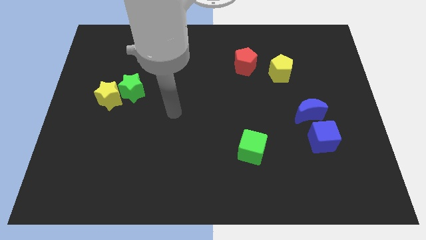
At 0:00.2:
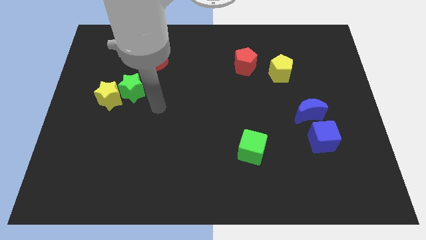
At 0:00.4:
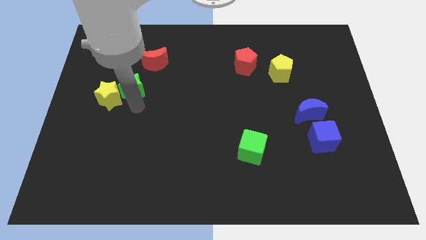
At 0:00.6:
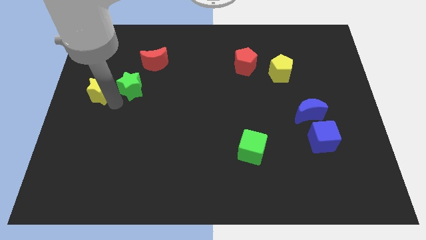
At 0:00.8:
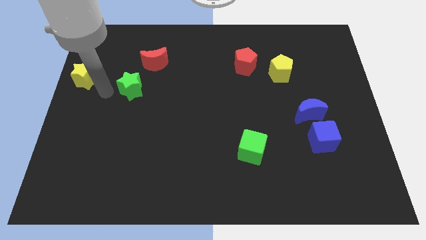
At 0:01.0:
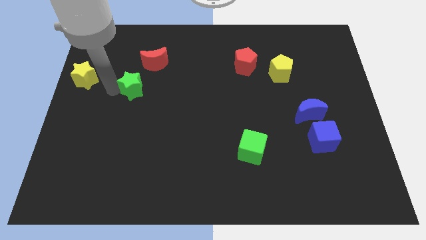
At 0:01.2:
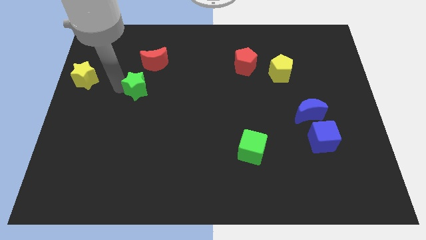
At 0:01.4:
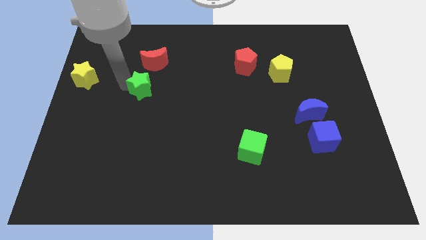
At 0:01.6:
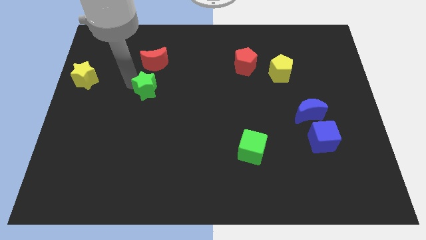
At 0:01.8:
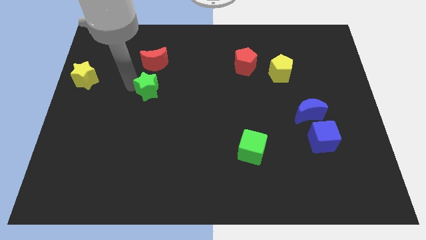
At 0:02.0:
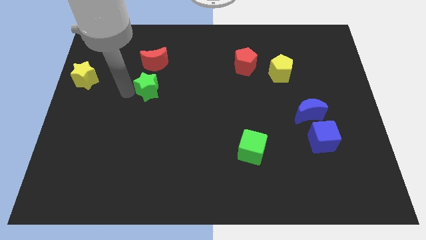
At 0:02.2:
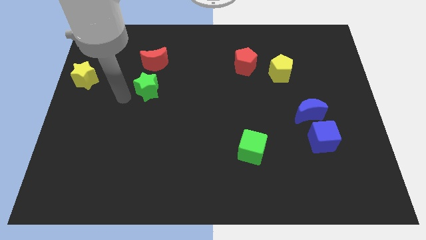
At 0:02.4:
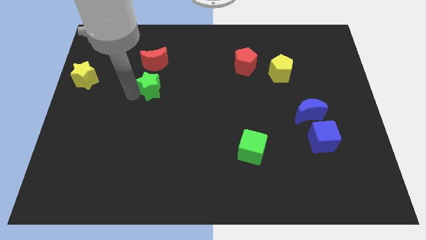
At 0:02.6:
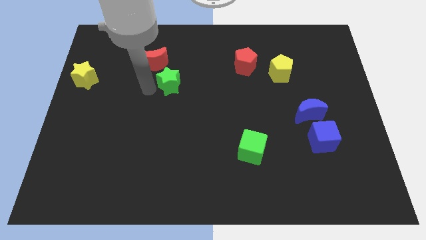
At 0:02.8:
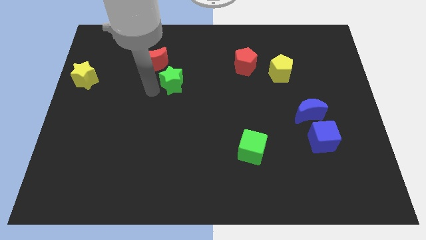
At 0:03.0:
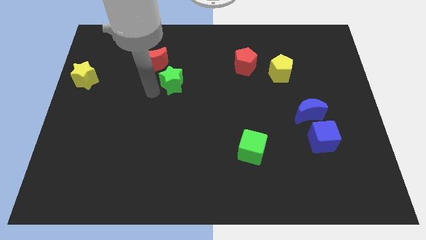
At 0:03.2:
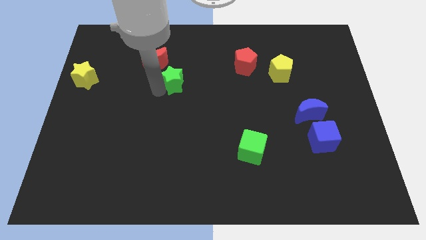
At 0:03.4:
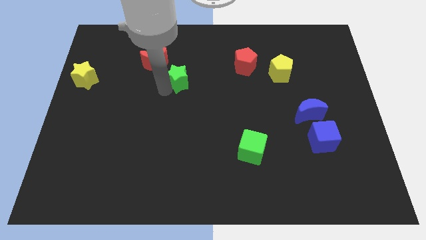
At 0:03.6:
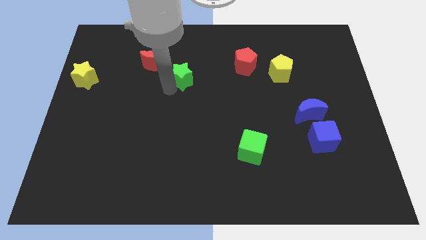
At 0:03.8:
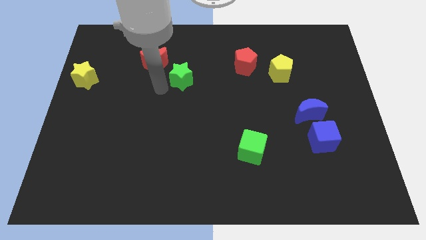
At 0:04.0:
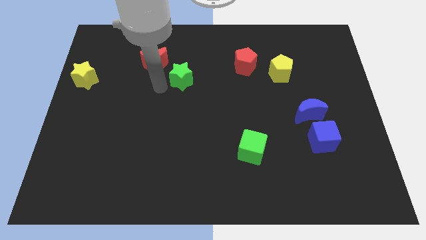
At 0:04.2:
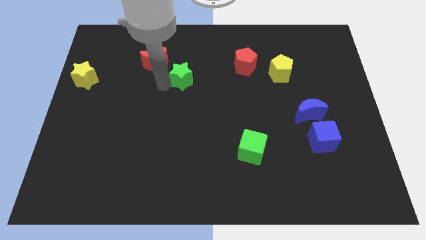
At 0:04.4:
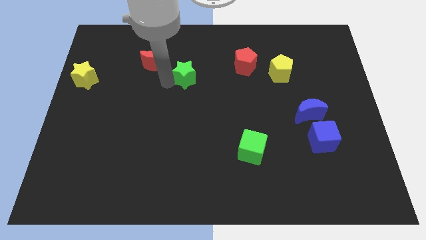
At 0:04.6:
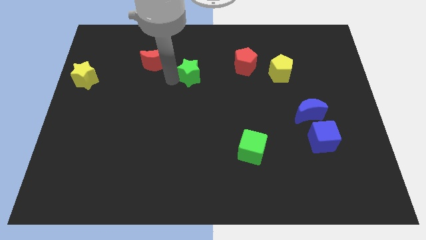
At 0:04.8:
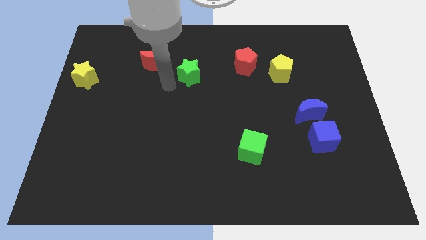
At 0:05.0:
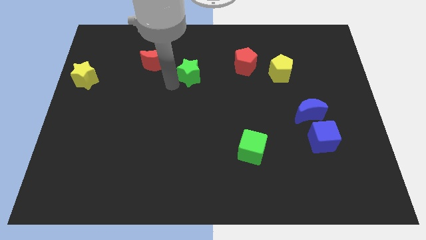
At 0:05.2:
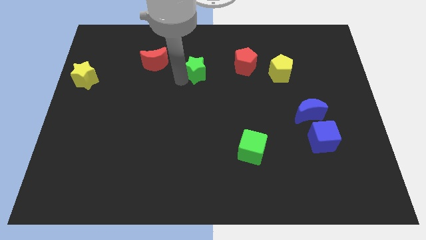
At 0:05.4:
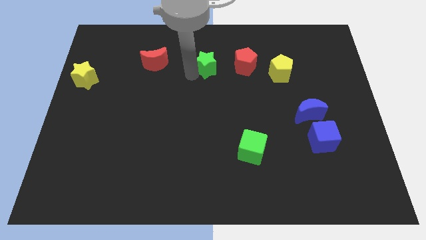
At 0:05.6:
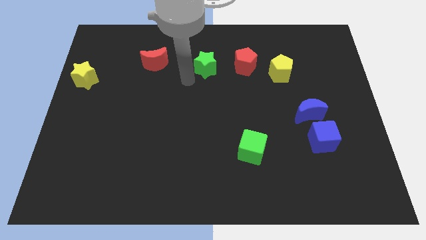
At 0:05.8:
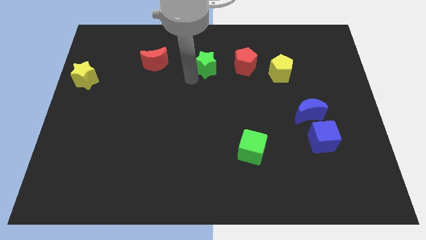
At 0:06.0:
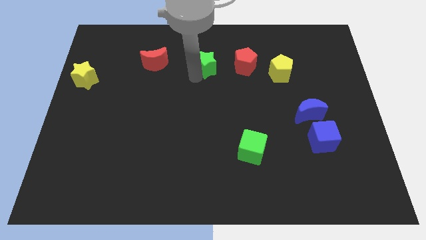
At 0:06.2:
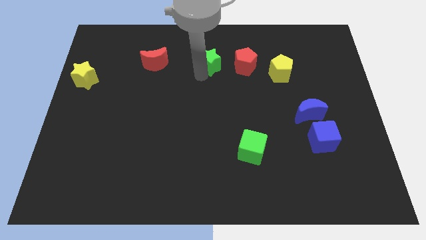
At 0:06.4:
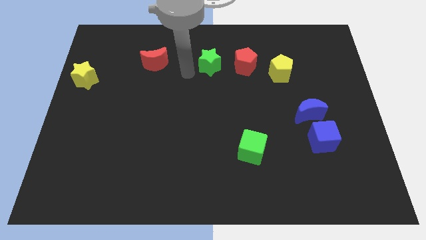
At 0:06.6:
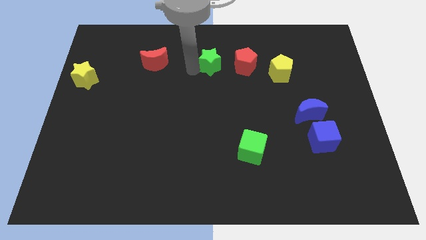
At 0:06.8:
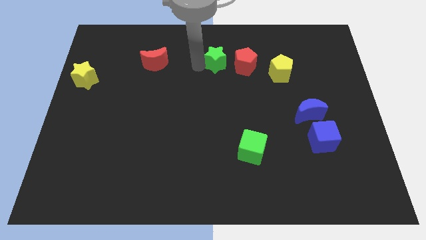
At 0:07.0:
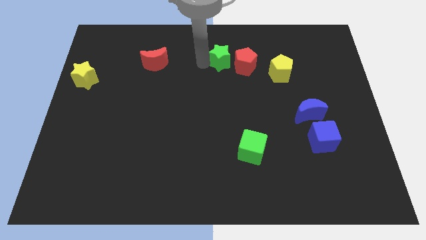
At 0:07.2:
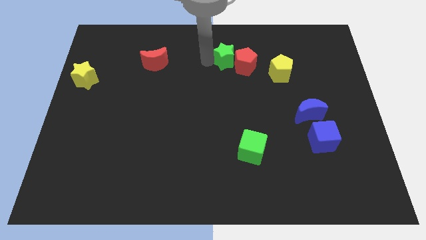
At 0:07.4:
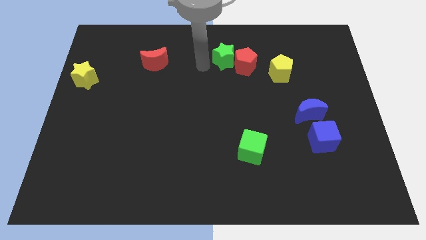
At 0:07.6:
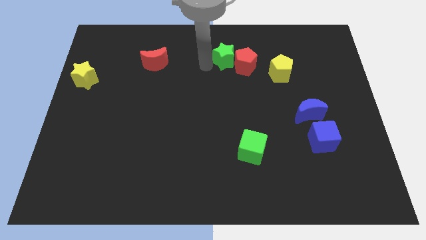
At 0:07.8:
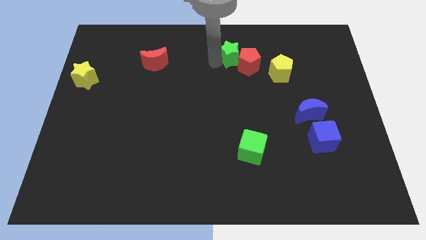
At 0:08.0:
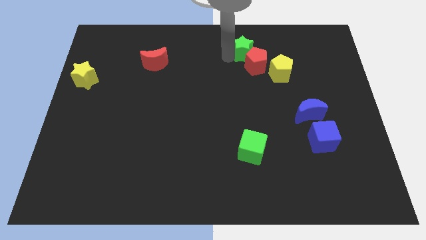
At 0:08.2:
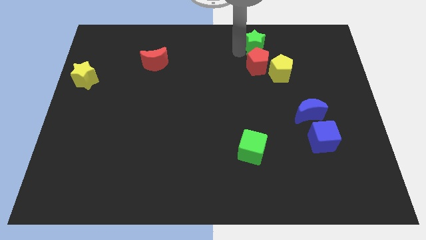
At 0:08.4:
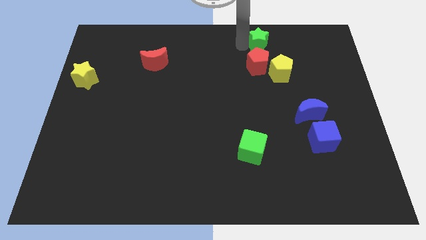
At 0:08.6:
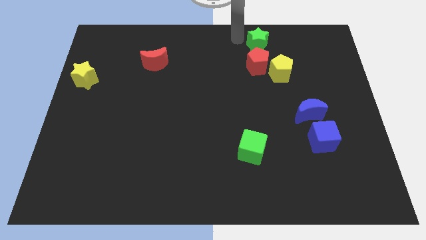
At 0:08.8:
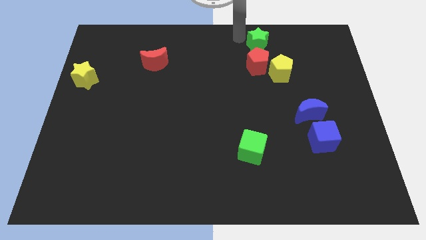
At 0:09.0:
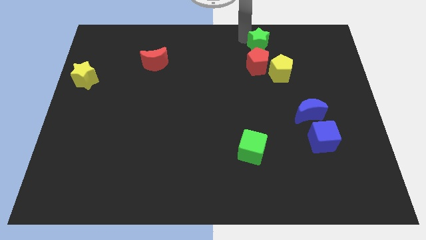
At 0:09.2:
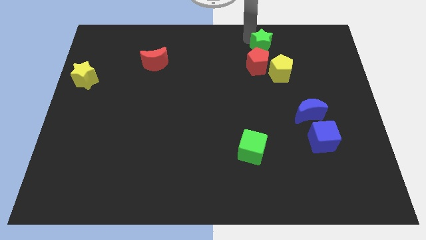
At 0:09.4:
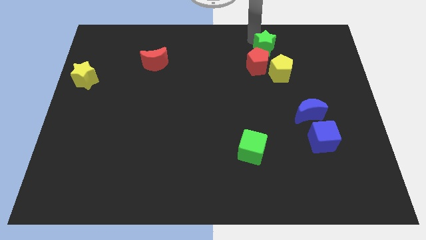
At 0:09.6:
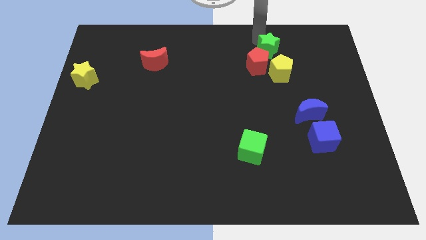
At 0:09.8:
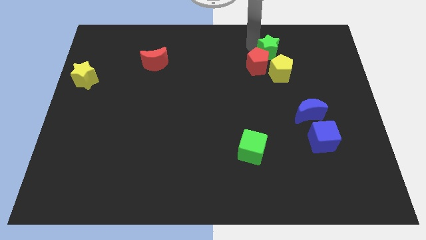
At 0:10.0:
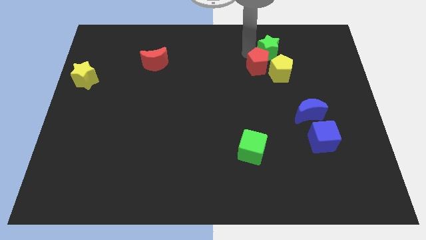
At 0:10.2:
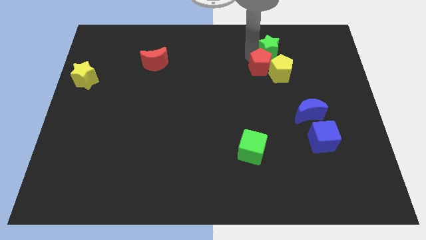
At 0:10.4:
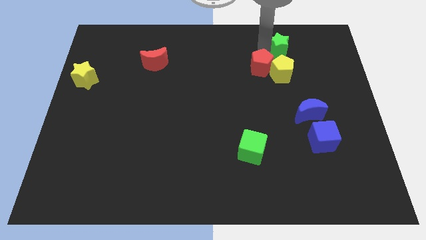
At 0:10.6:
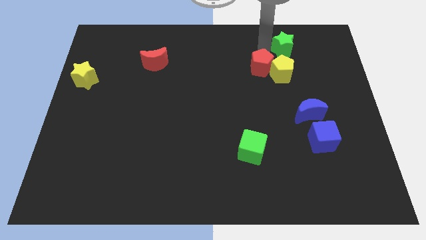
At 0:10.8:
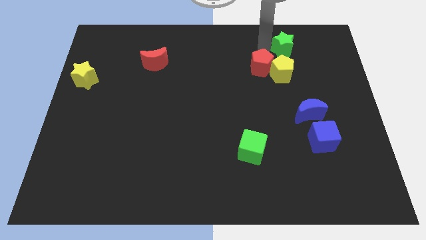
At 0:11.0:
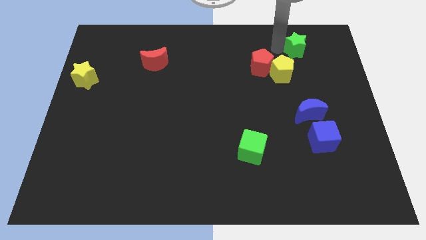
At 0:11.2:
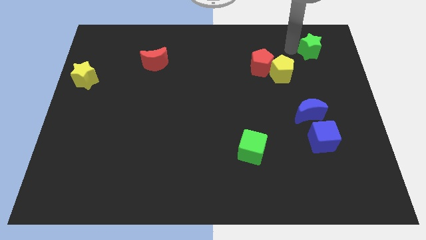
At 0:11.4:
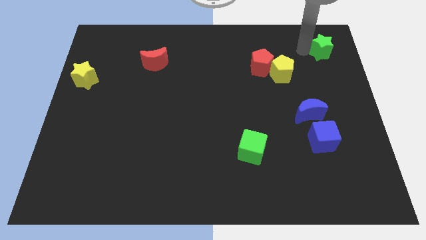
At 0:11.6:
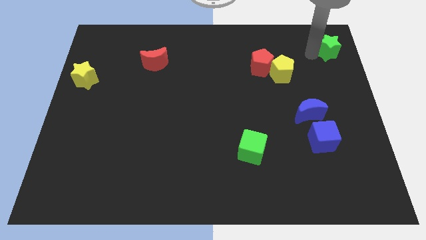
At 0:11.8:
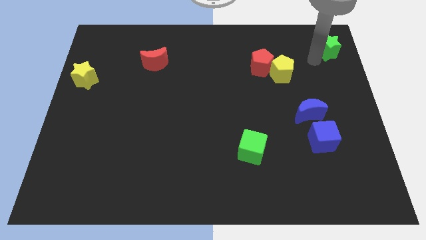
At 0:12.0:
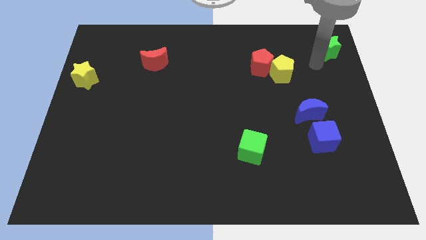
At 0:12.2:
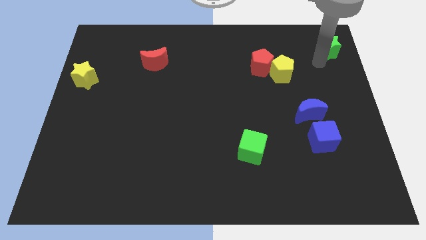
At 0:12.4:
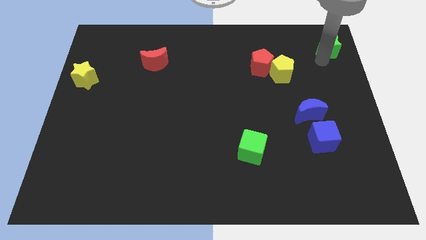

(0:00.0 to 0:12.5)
slide the green star to the top right of the board

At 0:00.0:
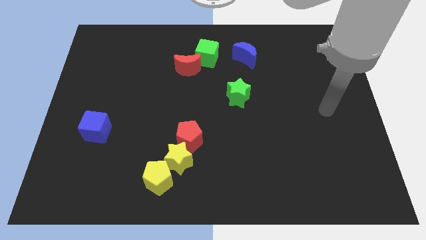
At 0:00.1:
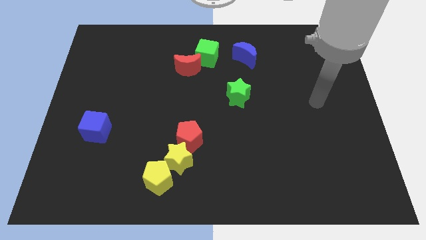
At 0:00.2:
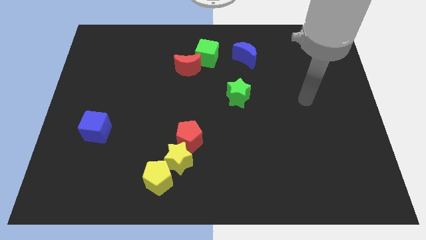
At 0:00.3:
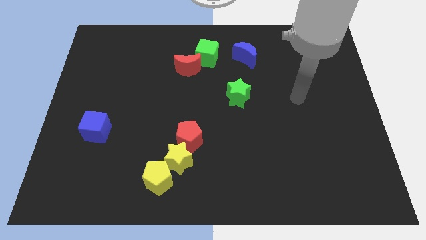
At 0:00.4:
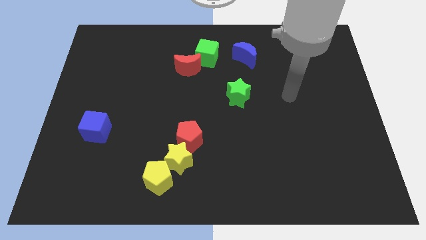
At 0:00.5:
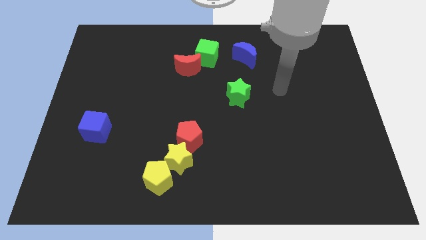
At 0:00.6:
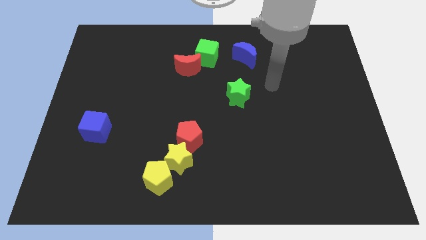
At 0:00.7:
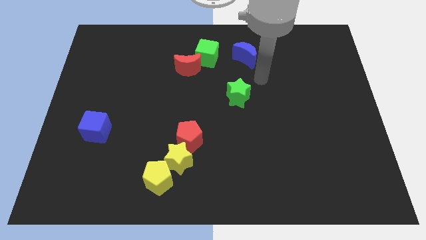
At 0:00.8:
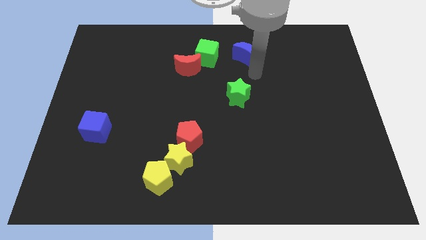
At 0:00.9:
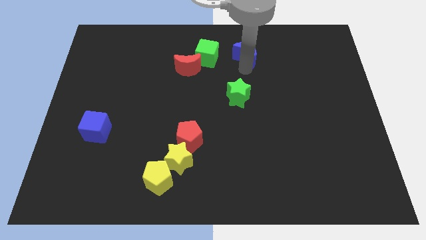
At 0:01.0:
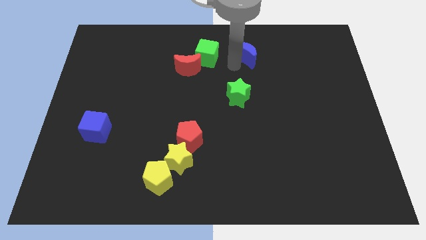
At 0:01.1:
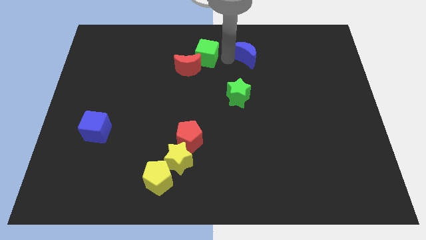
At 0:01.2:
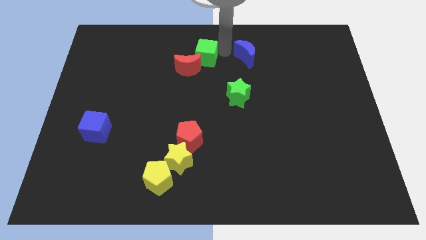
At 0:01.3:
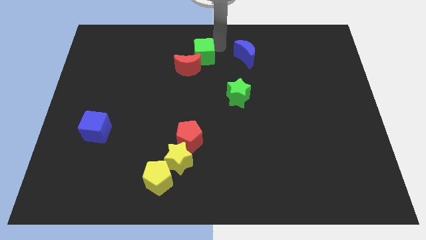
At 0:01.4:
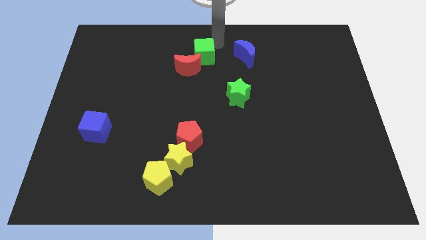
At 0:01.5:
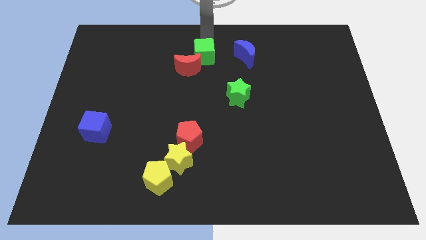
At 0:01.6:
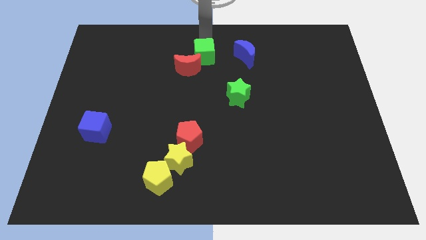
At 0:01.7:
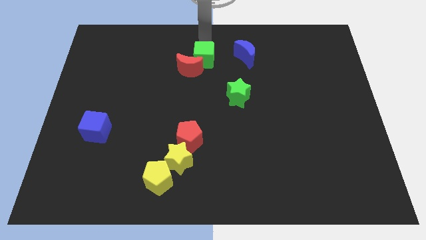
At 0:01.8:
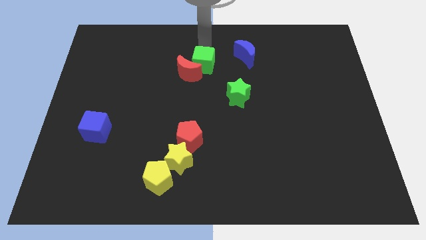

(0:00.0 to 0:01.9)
slide the green cube to the center of the board
